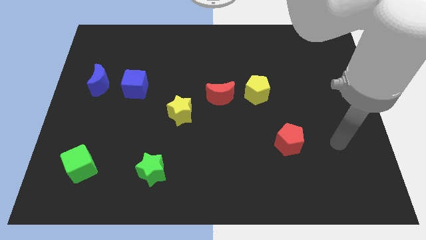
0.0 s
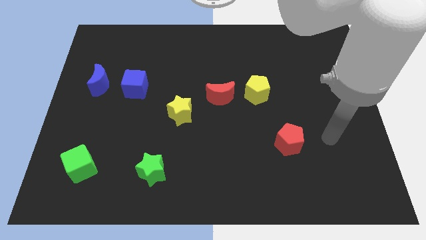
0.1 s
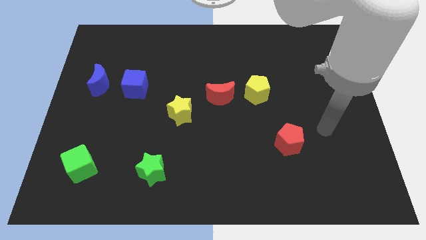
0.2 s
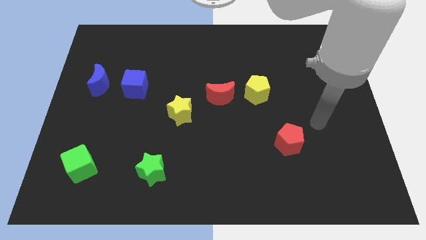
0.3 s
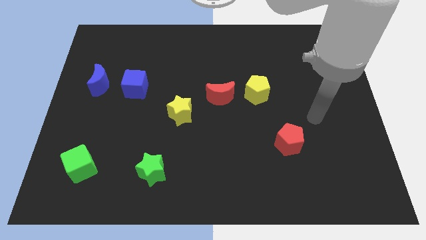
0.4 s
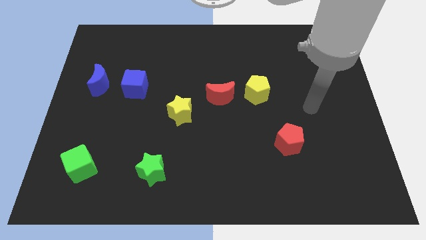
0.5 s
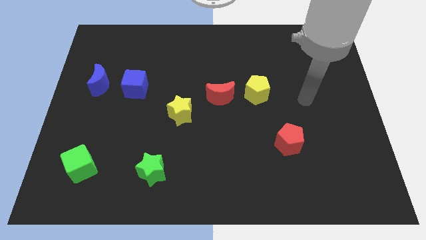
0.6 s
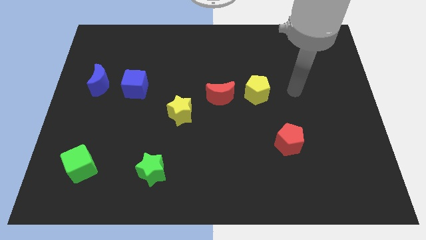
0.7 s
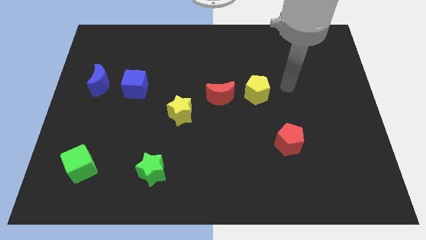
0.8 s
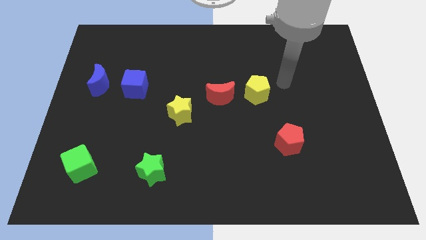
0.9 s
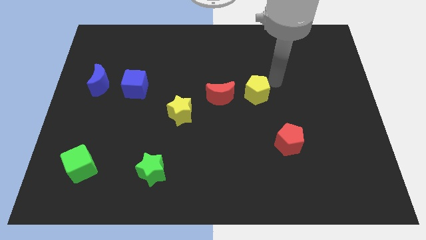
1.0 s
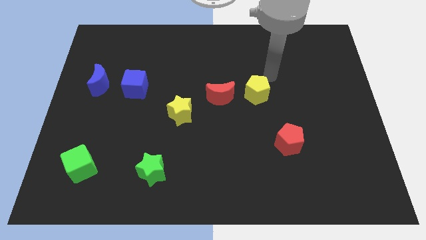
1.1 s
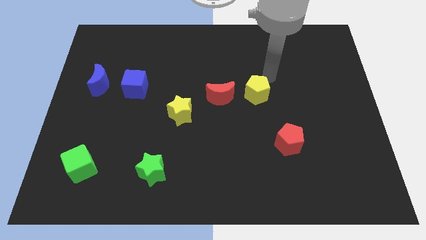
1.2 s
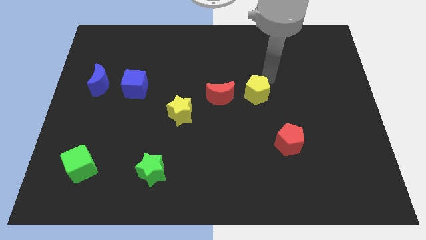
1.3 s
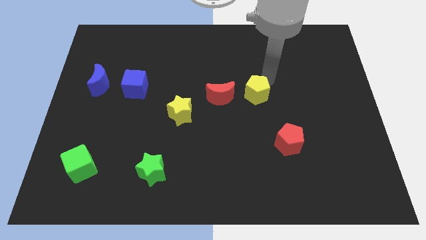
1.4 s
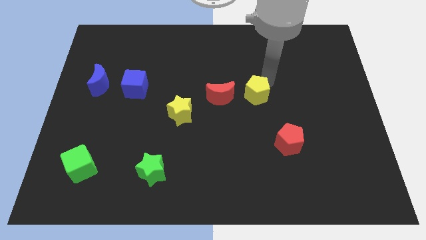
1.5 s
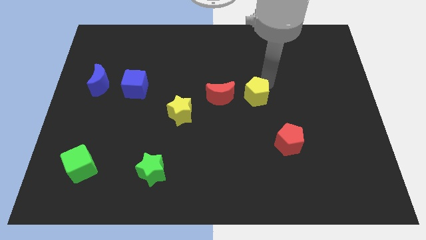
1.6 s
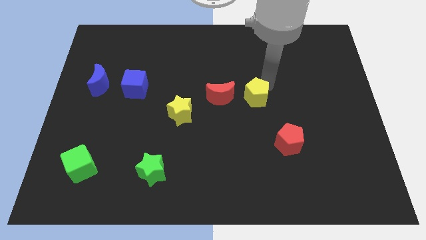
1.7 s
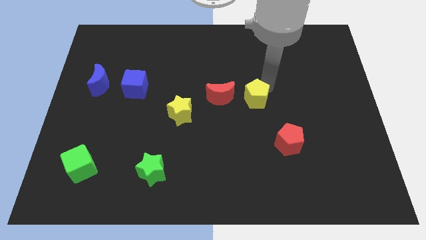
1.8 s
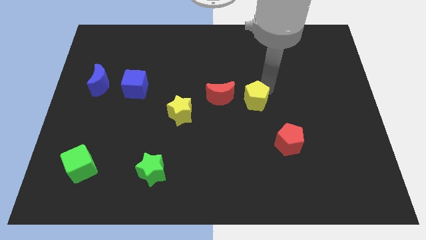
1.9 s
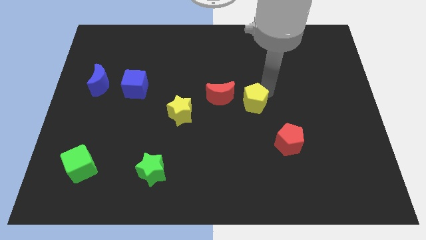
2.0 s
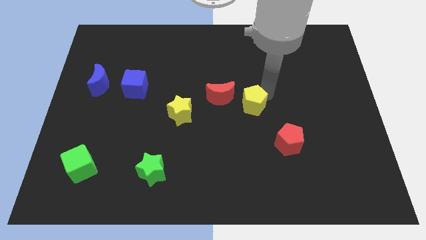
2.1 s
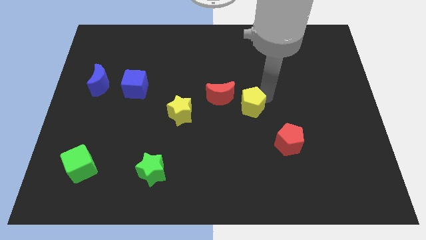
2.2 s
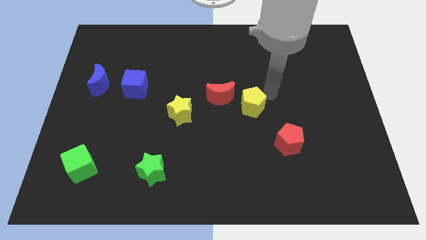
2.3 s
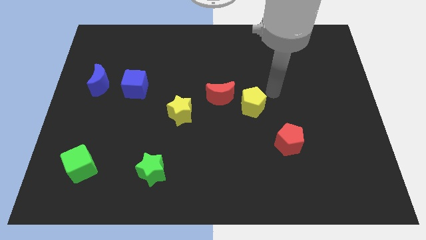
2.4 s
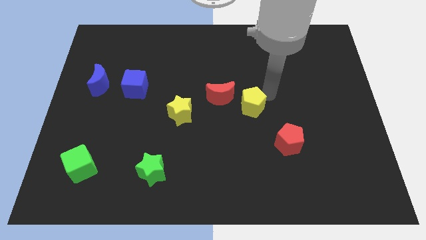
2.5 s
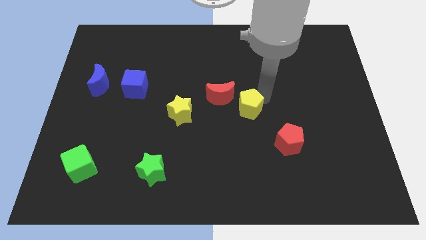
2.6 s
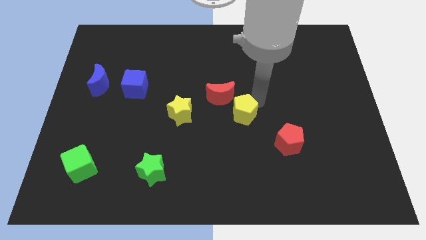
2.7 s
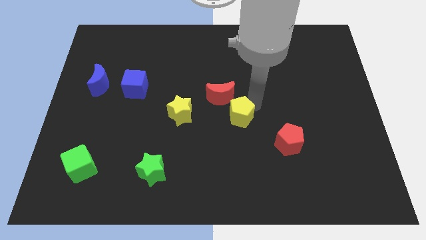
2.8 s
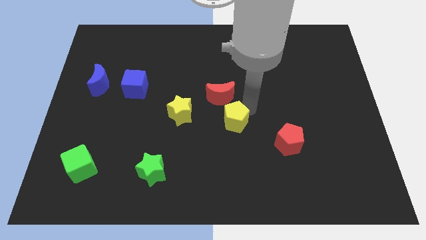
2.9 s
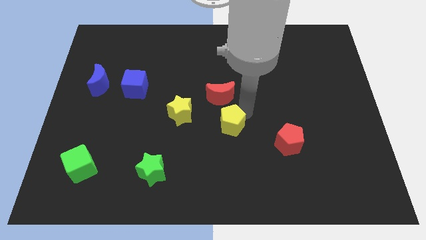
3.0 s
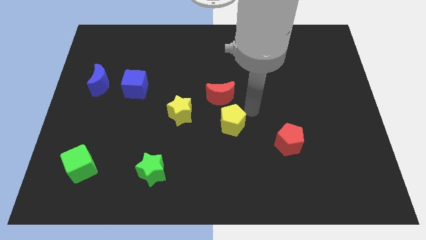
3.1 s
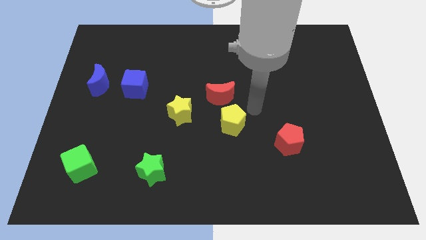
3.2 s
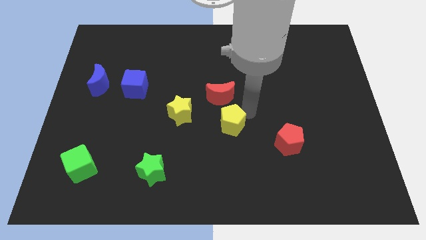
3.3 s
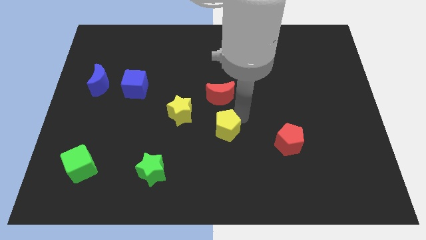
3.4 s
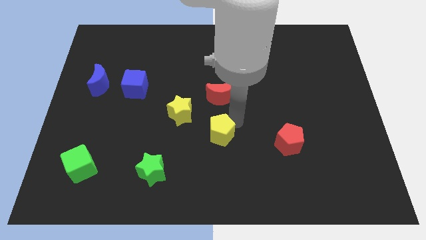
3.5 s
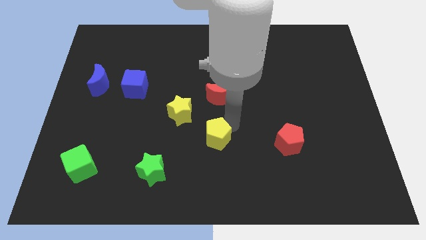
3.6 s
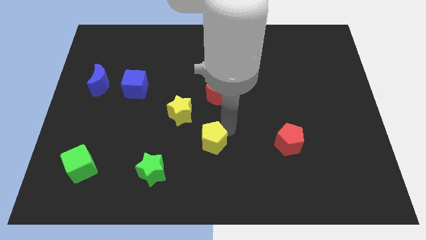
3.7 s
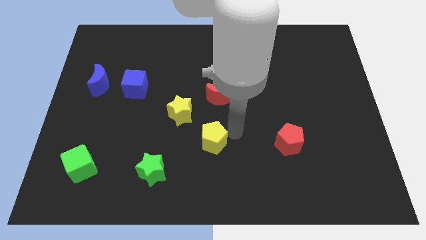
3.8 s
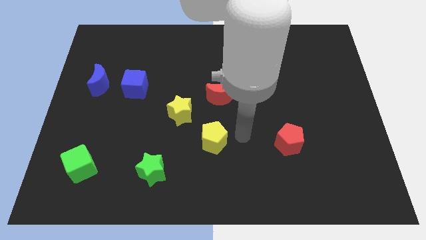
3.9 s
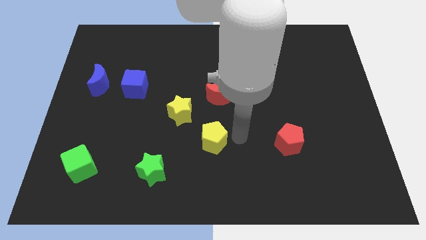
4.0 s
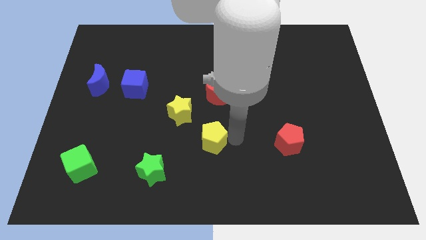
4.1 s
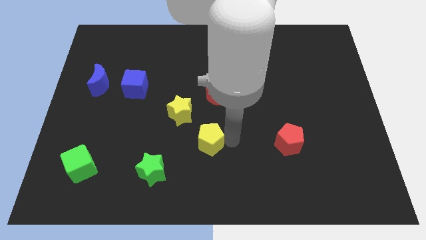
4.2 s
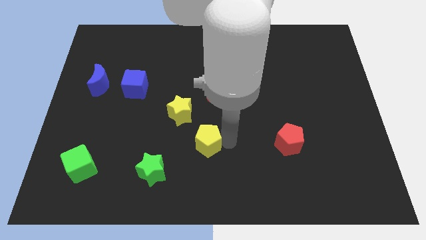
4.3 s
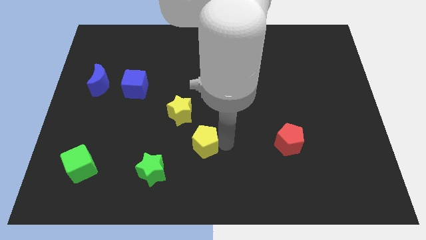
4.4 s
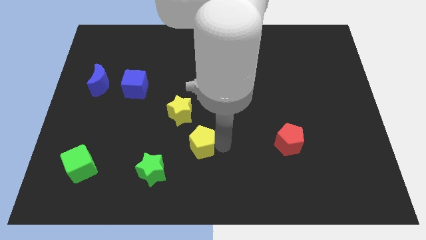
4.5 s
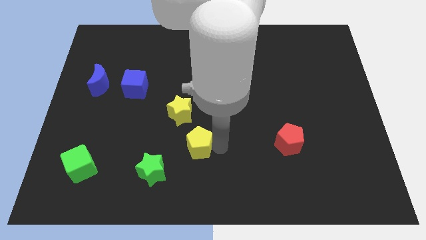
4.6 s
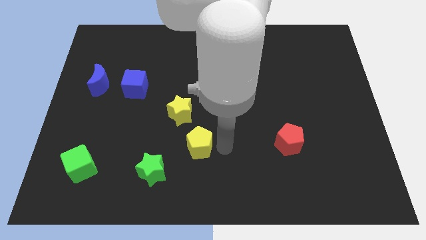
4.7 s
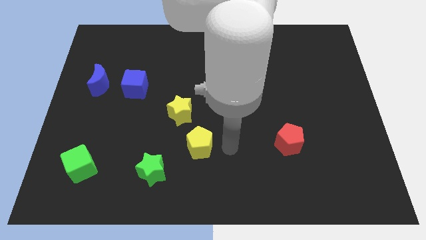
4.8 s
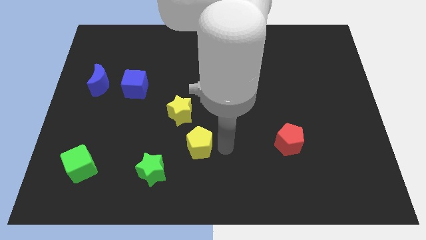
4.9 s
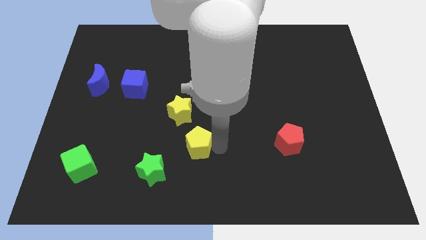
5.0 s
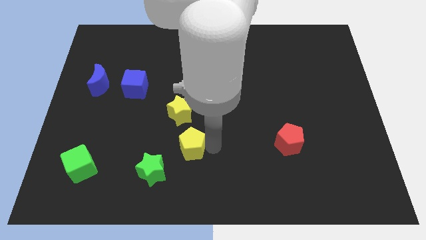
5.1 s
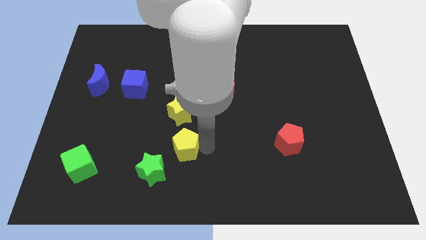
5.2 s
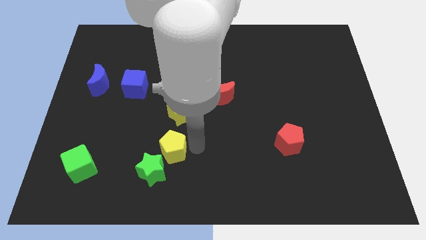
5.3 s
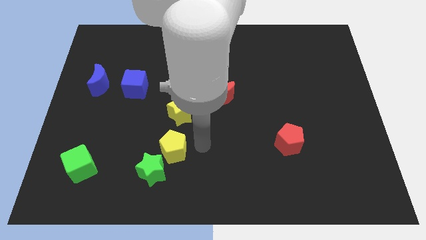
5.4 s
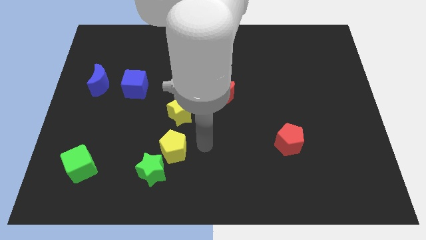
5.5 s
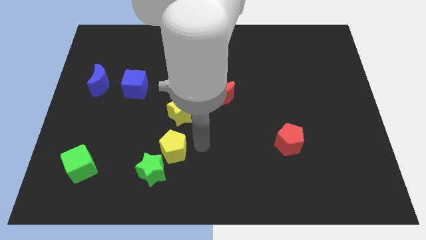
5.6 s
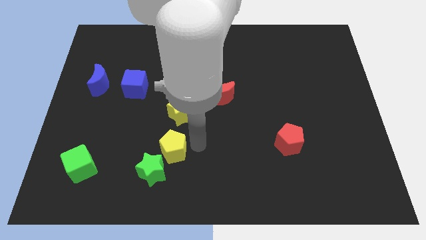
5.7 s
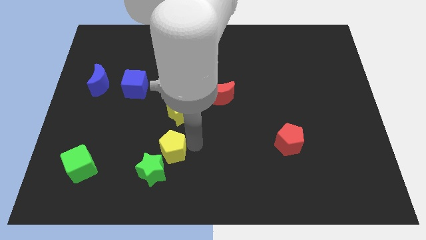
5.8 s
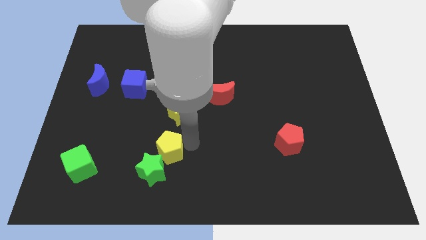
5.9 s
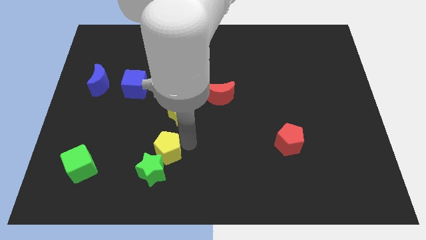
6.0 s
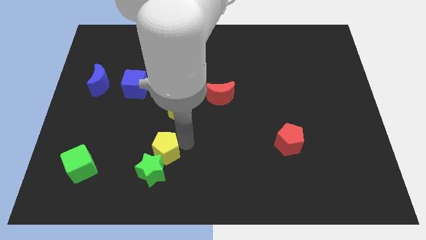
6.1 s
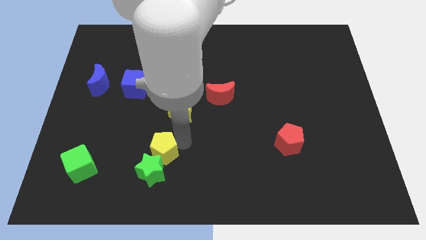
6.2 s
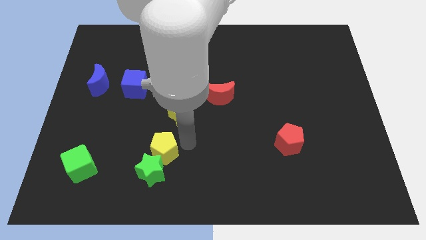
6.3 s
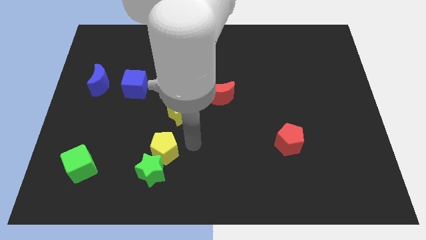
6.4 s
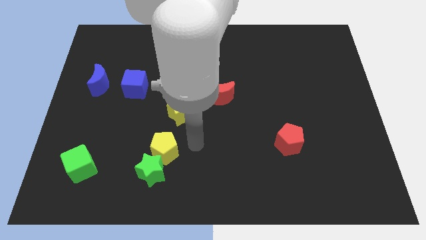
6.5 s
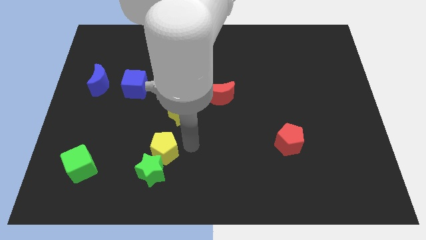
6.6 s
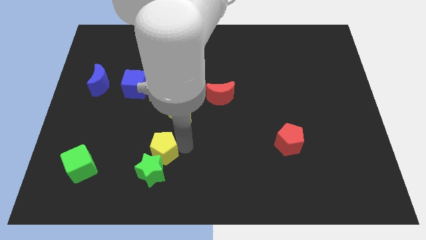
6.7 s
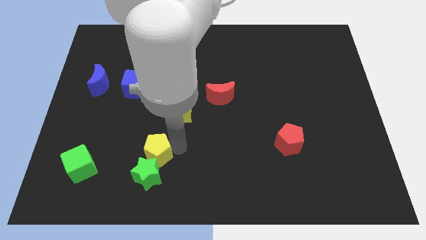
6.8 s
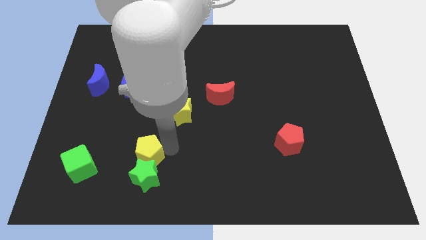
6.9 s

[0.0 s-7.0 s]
slide the yellow pentagon to the right side of the green cube
